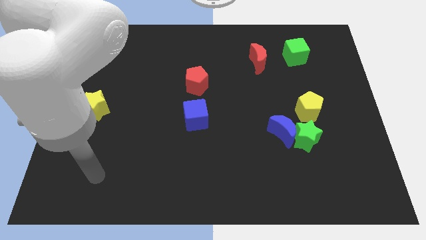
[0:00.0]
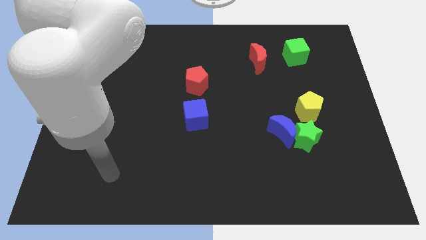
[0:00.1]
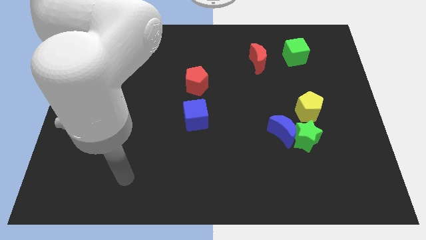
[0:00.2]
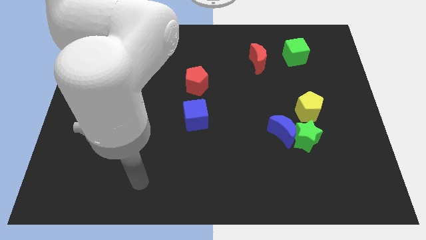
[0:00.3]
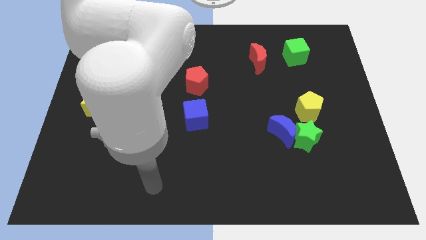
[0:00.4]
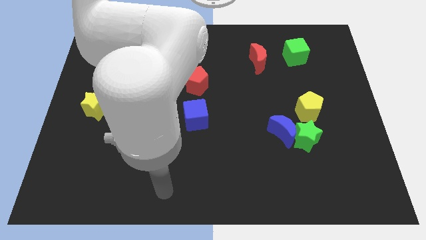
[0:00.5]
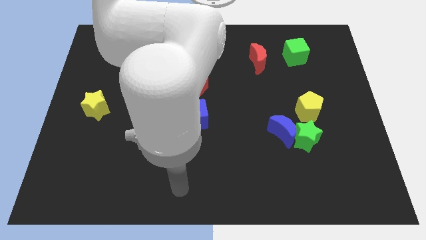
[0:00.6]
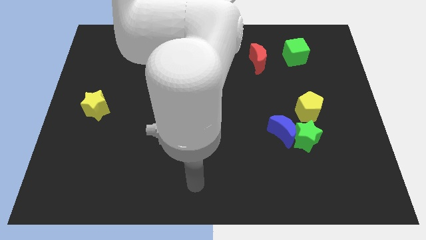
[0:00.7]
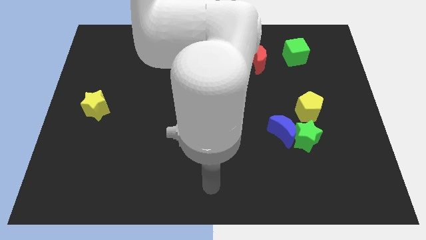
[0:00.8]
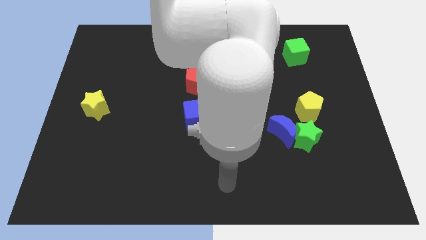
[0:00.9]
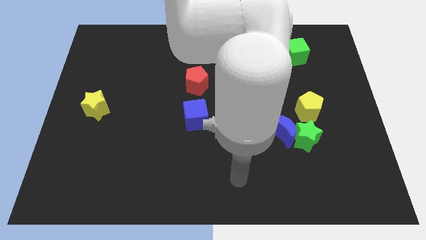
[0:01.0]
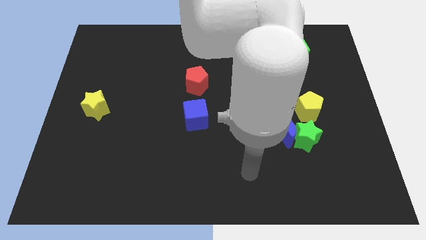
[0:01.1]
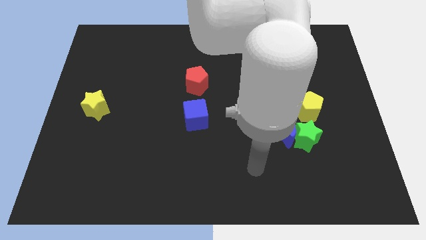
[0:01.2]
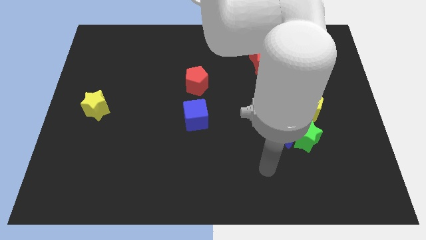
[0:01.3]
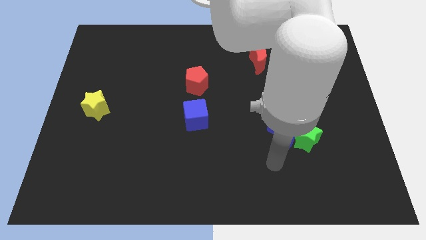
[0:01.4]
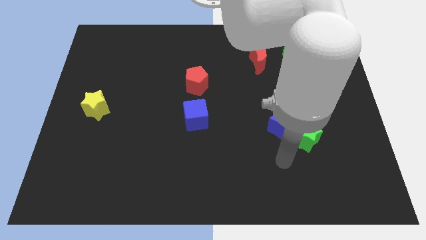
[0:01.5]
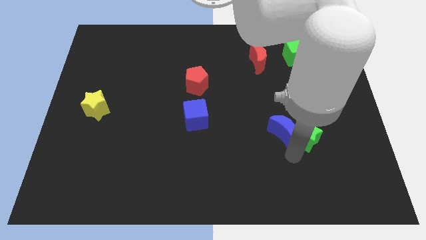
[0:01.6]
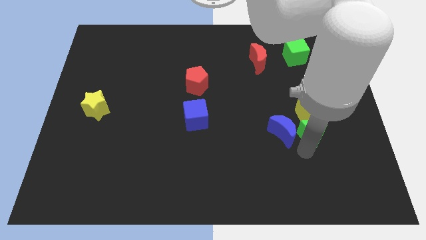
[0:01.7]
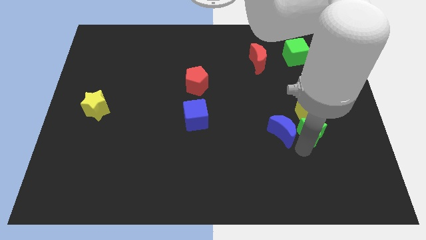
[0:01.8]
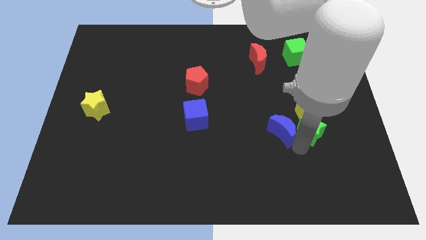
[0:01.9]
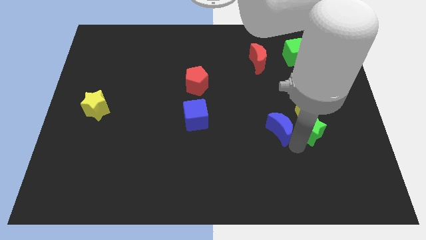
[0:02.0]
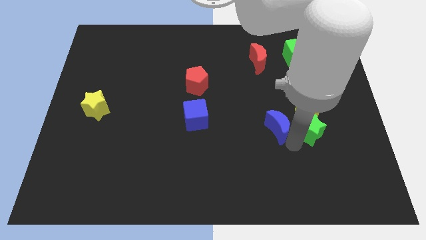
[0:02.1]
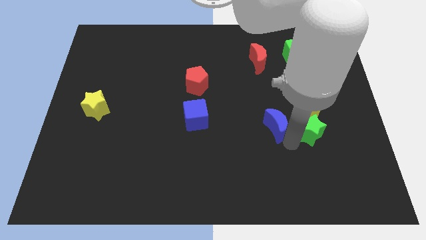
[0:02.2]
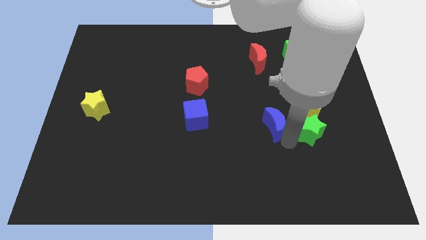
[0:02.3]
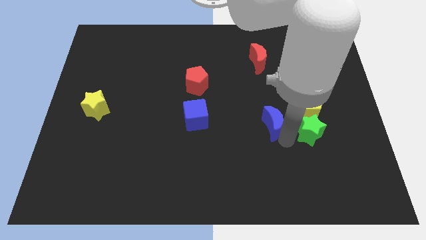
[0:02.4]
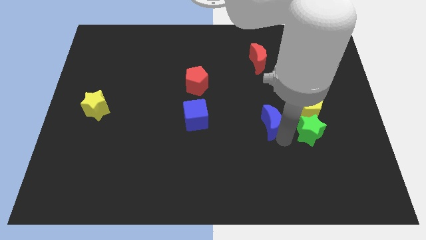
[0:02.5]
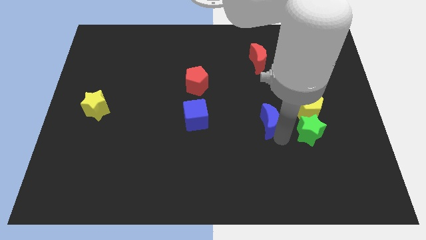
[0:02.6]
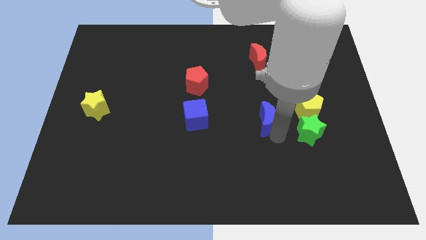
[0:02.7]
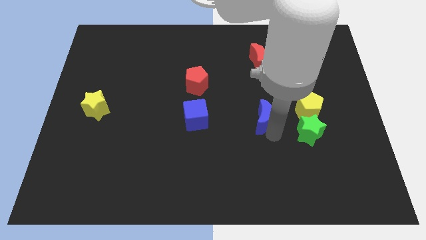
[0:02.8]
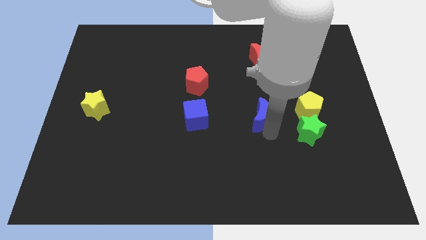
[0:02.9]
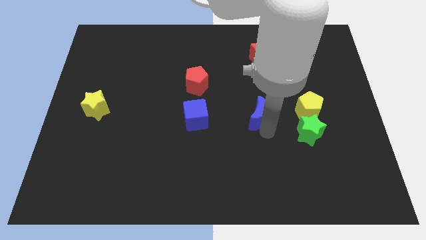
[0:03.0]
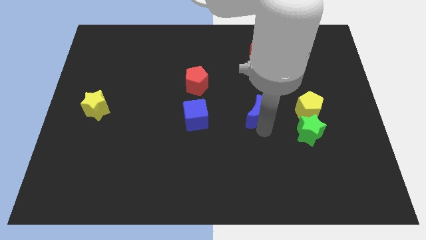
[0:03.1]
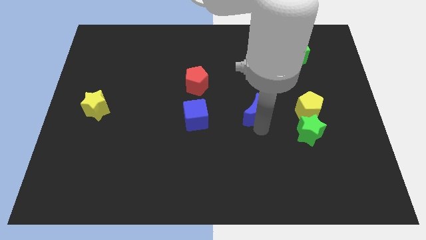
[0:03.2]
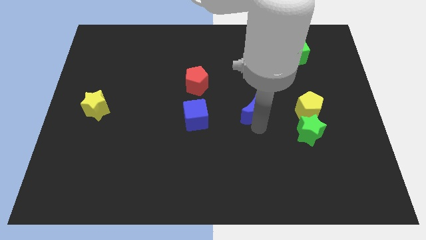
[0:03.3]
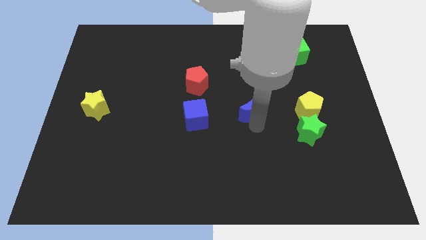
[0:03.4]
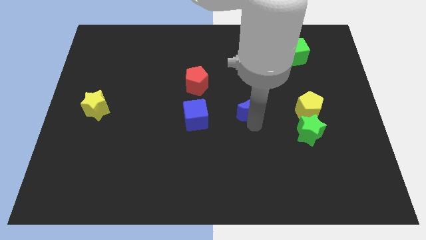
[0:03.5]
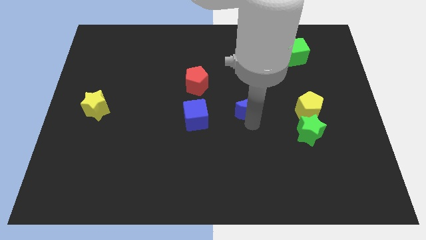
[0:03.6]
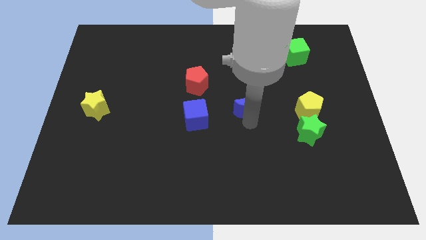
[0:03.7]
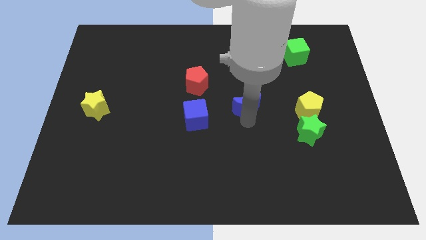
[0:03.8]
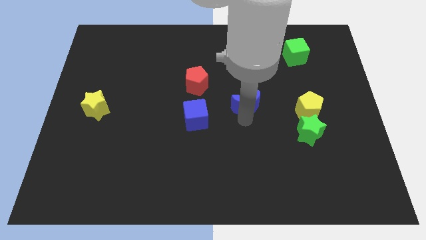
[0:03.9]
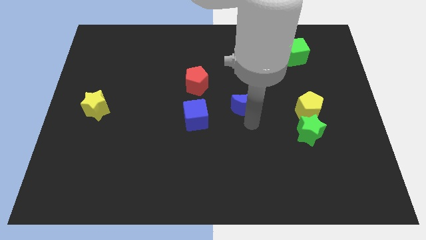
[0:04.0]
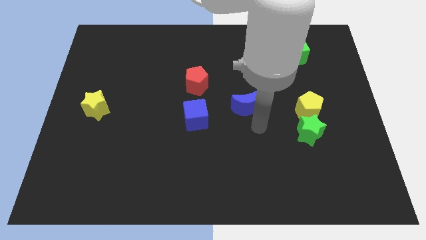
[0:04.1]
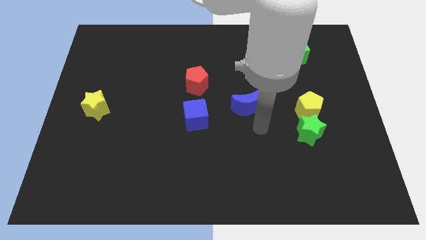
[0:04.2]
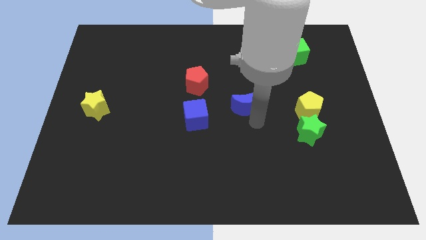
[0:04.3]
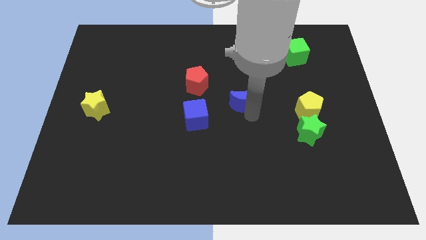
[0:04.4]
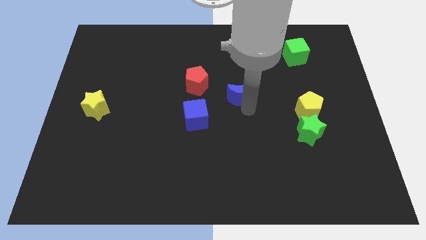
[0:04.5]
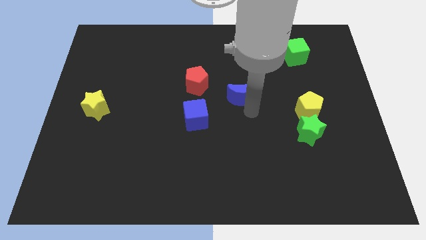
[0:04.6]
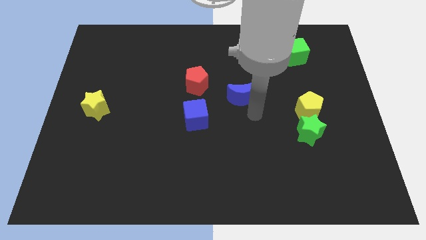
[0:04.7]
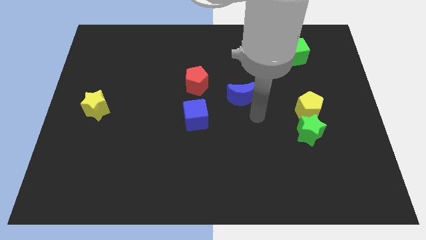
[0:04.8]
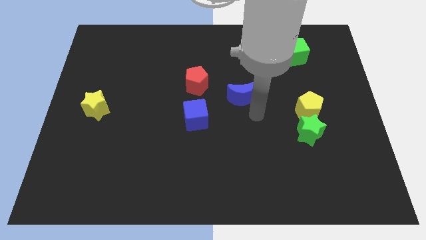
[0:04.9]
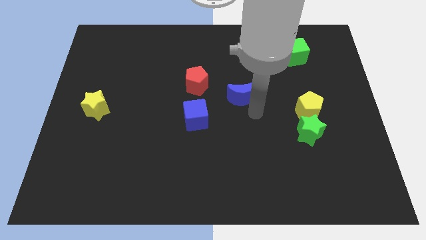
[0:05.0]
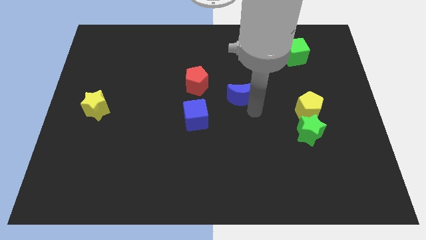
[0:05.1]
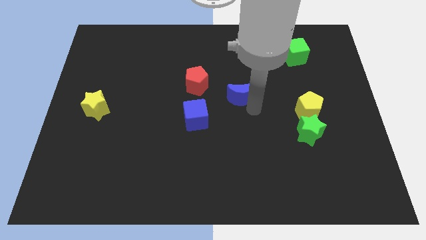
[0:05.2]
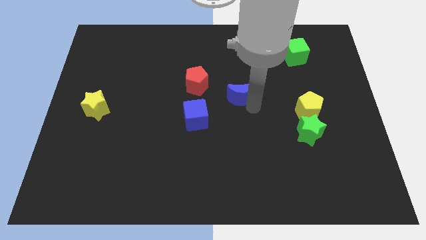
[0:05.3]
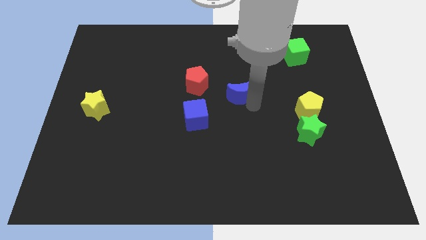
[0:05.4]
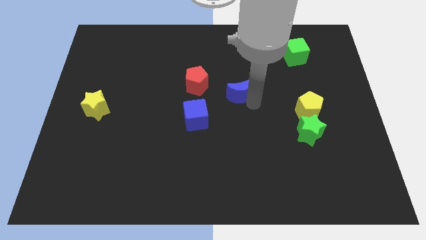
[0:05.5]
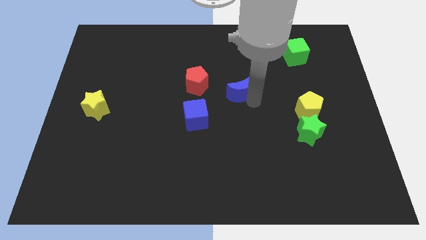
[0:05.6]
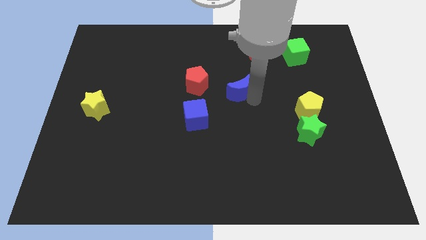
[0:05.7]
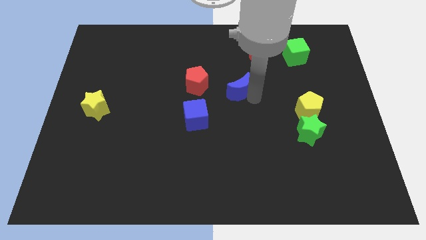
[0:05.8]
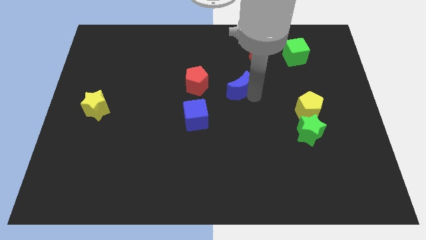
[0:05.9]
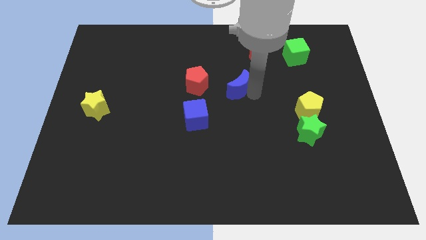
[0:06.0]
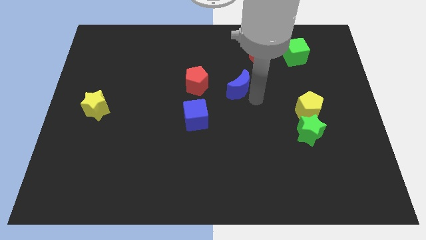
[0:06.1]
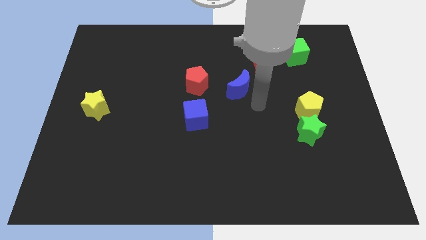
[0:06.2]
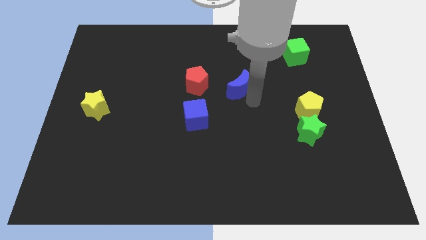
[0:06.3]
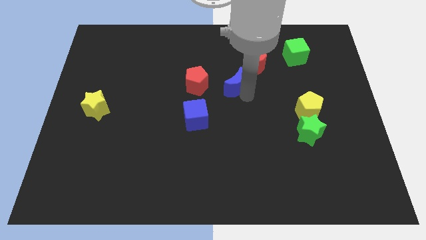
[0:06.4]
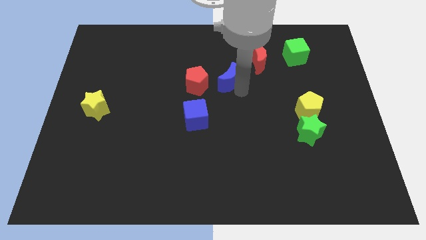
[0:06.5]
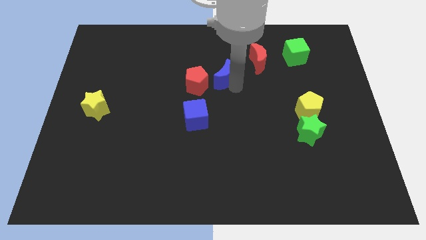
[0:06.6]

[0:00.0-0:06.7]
put the blue moon diagonally up and to the right of the red pentagon
